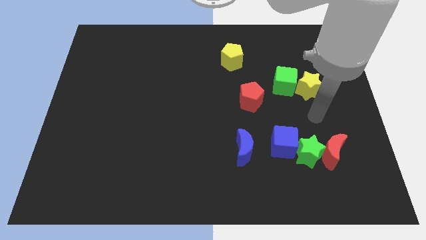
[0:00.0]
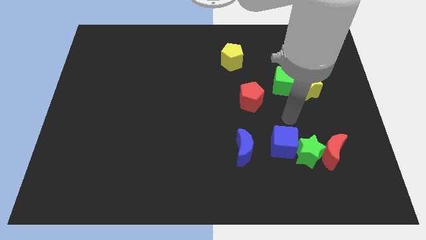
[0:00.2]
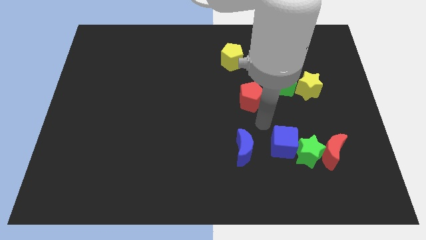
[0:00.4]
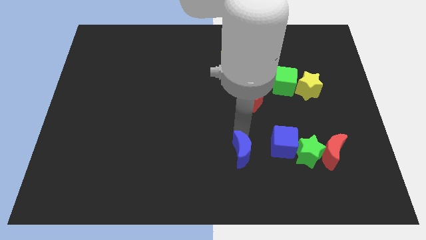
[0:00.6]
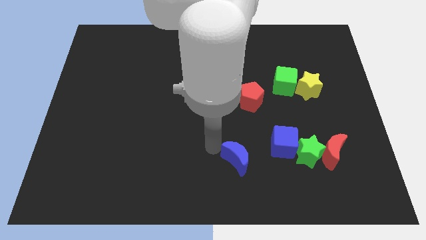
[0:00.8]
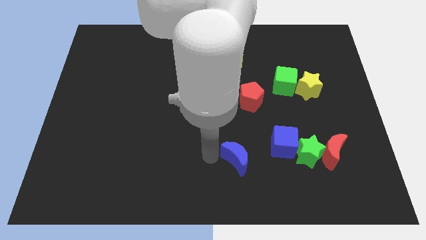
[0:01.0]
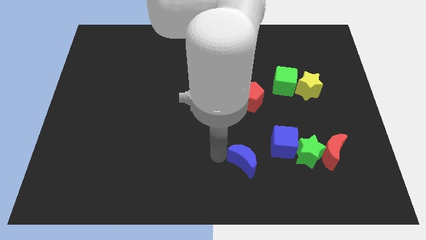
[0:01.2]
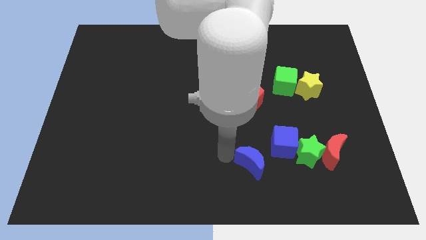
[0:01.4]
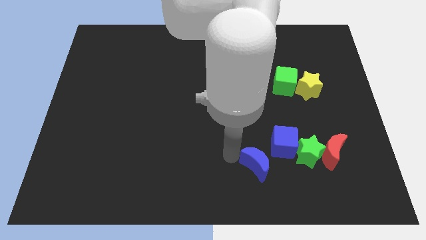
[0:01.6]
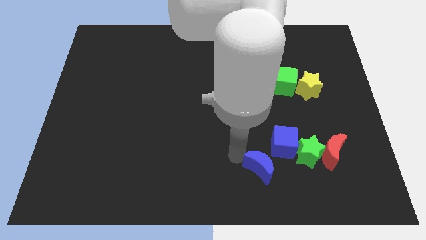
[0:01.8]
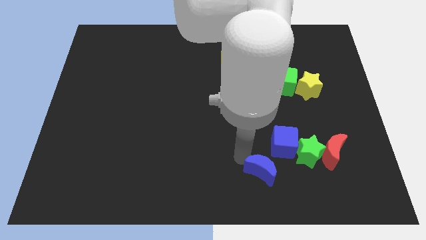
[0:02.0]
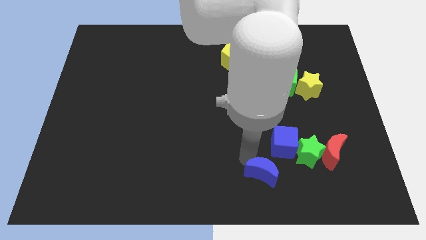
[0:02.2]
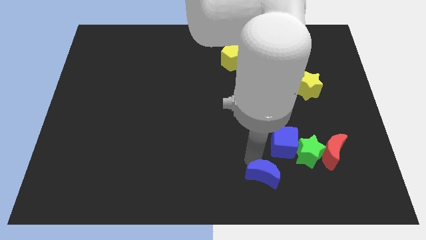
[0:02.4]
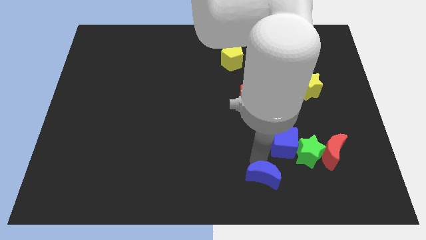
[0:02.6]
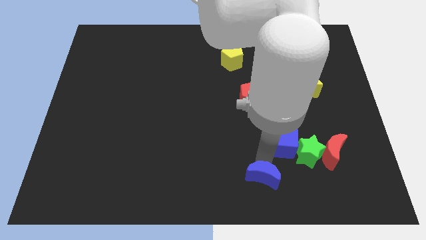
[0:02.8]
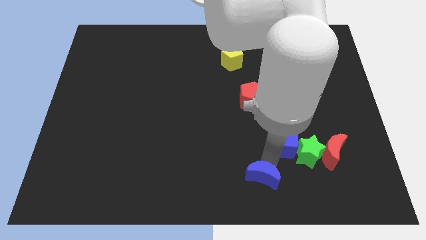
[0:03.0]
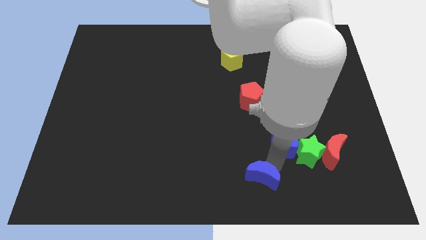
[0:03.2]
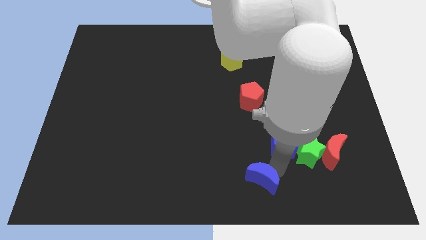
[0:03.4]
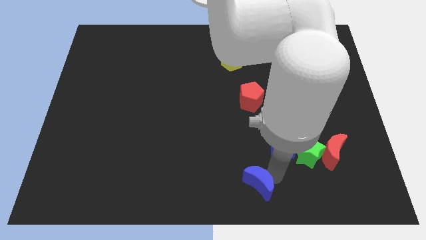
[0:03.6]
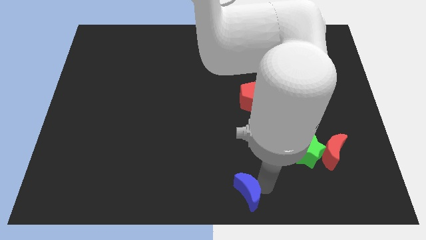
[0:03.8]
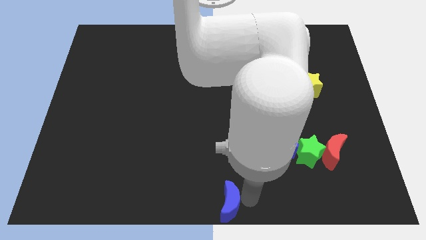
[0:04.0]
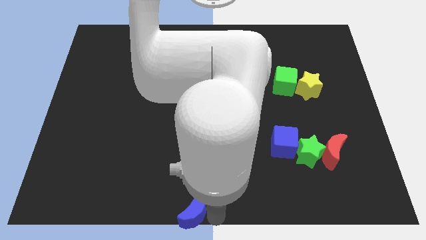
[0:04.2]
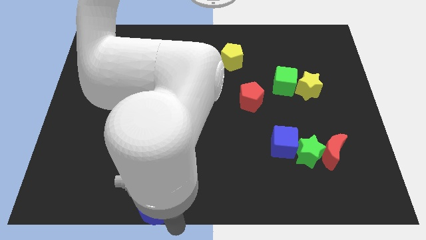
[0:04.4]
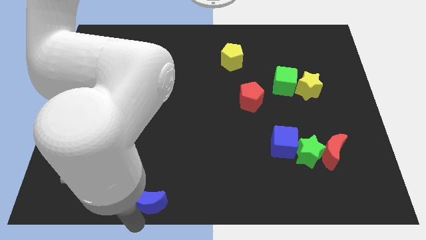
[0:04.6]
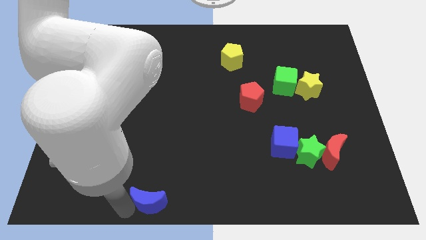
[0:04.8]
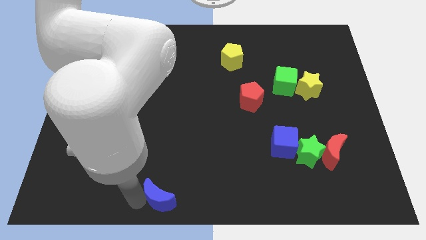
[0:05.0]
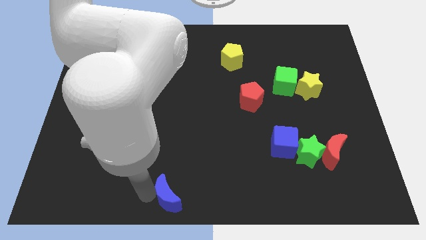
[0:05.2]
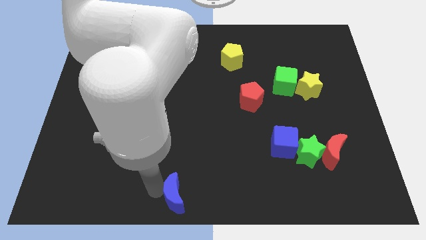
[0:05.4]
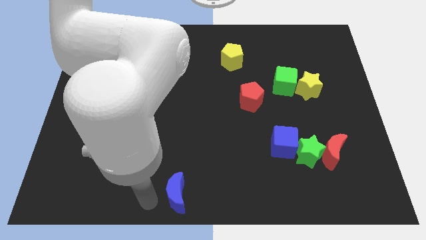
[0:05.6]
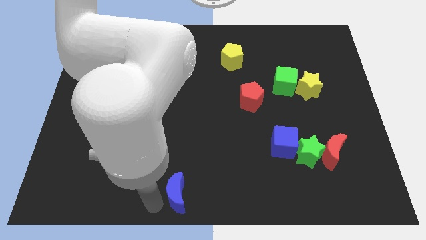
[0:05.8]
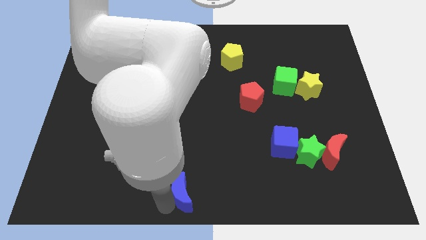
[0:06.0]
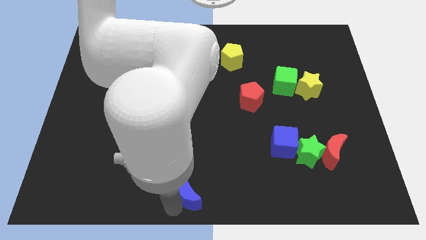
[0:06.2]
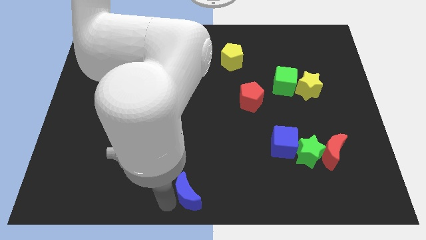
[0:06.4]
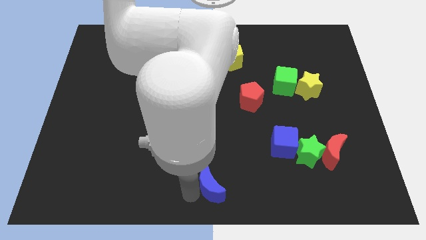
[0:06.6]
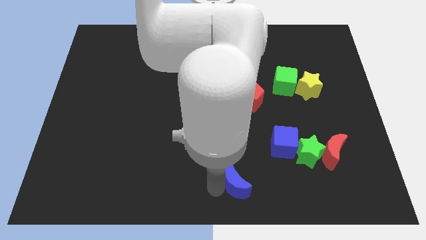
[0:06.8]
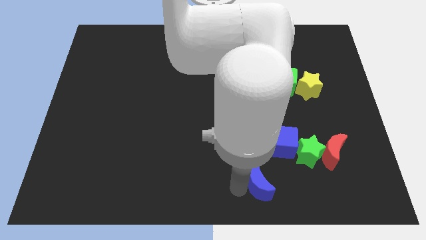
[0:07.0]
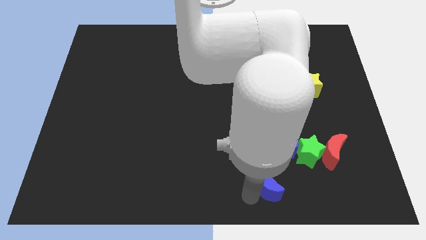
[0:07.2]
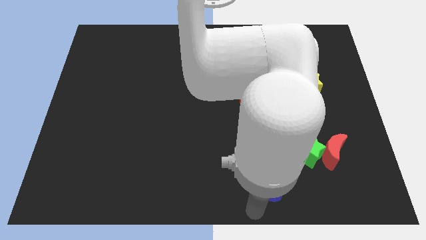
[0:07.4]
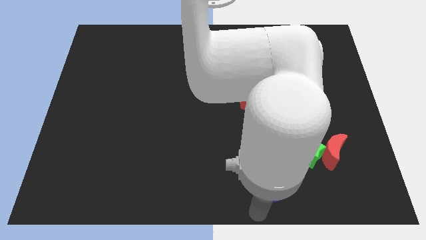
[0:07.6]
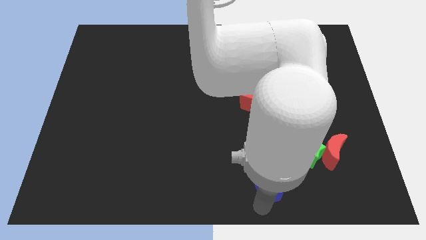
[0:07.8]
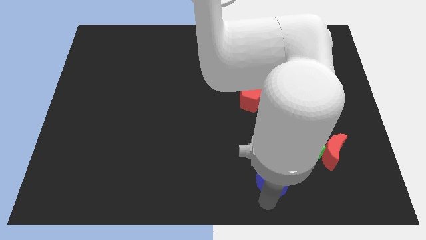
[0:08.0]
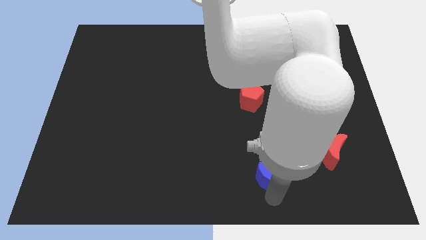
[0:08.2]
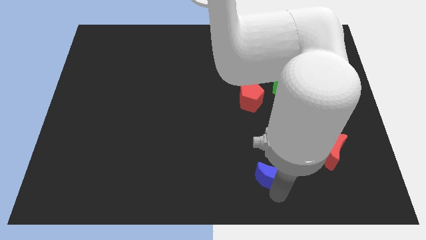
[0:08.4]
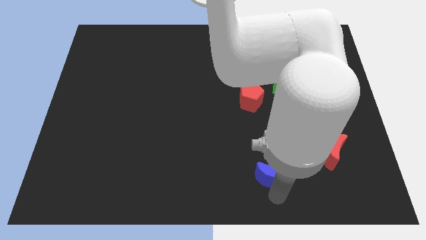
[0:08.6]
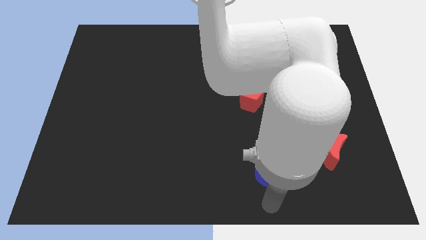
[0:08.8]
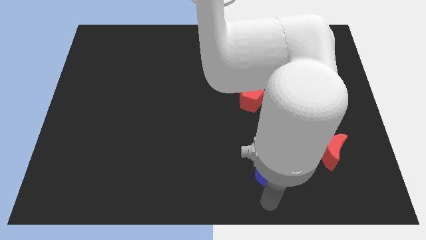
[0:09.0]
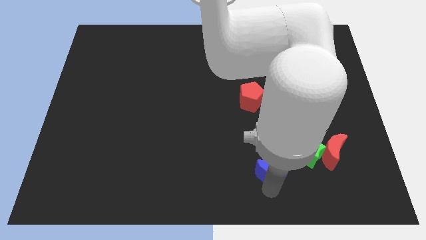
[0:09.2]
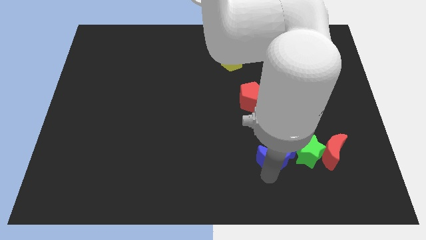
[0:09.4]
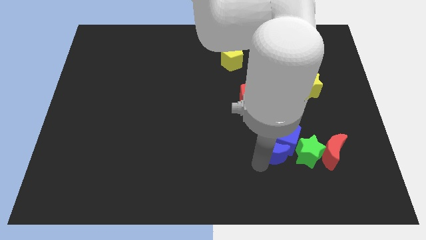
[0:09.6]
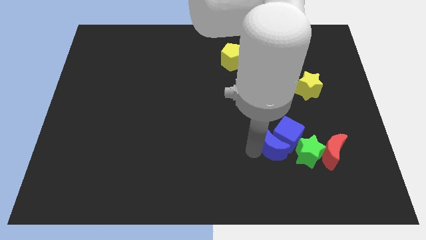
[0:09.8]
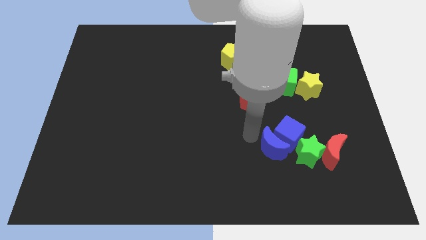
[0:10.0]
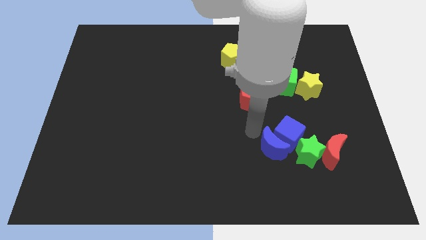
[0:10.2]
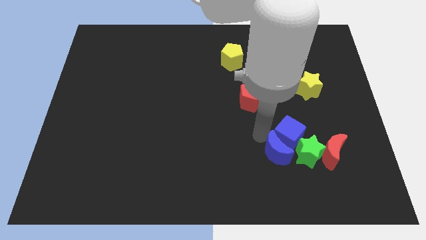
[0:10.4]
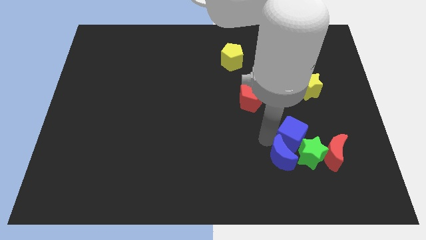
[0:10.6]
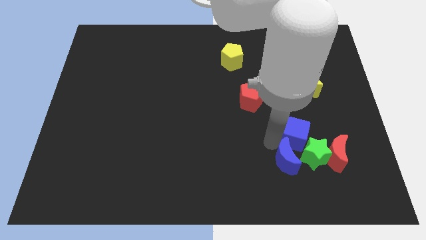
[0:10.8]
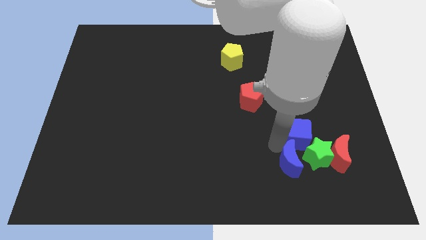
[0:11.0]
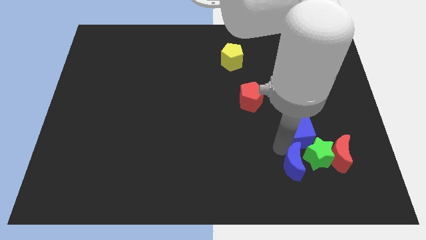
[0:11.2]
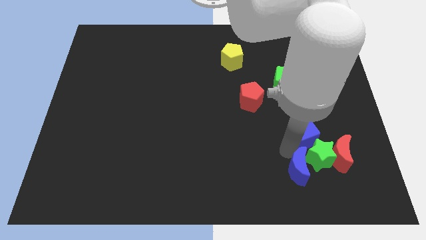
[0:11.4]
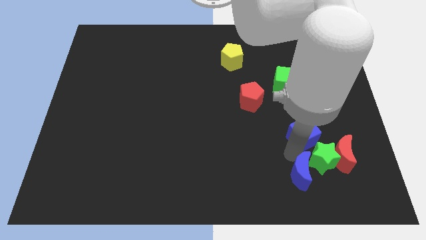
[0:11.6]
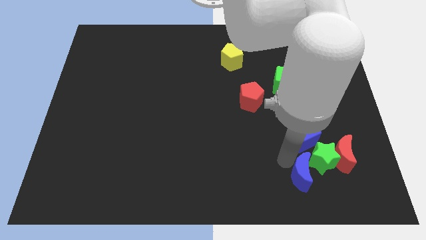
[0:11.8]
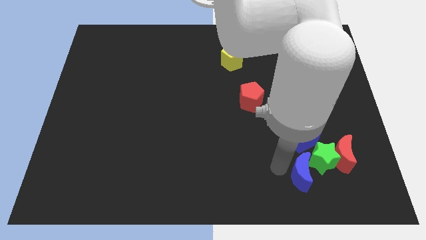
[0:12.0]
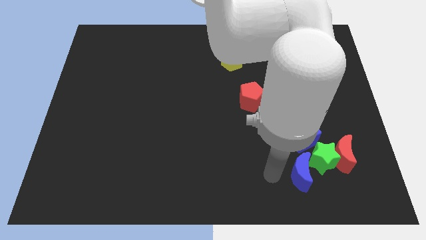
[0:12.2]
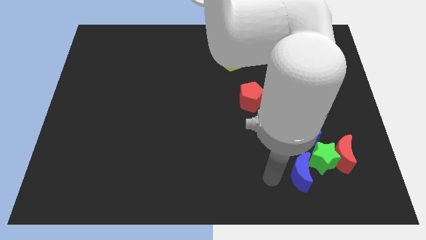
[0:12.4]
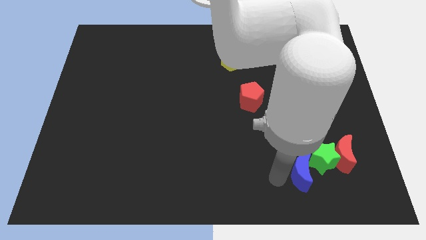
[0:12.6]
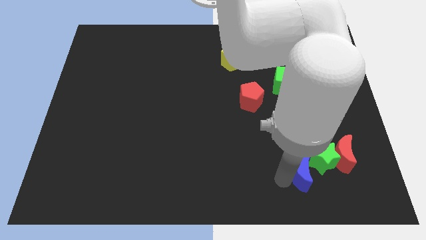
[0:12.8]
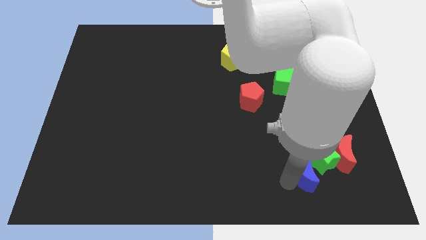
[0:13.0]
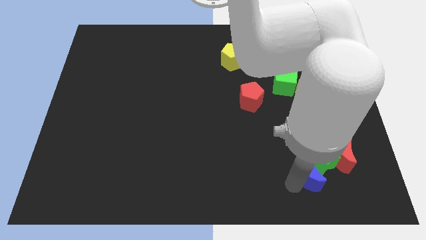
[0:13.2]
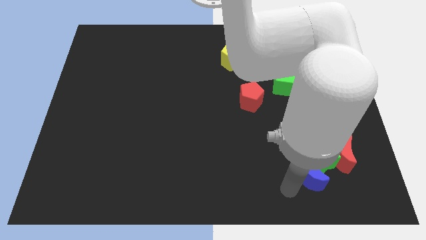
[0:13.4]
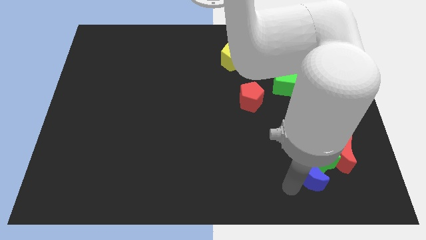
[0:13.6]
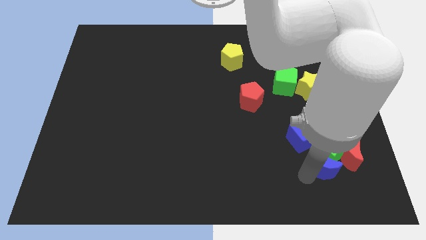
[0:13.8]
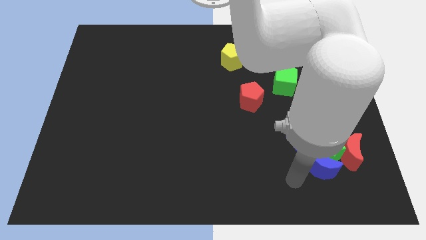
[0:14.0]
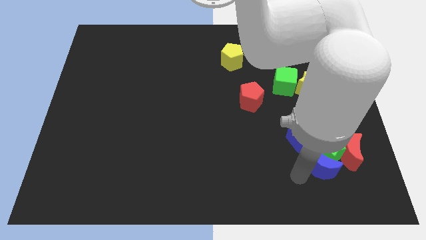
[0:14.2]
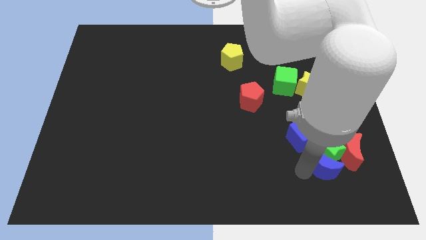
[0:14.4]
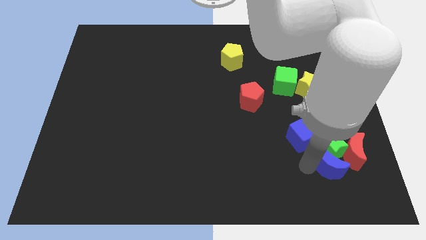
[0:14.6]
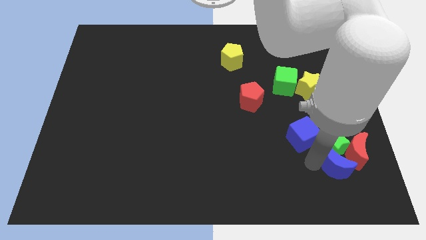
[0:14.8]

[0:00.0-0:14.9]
put the blue moon close to the red moon
